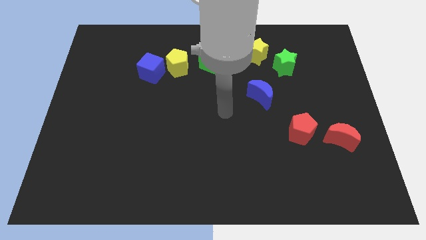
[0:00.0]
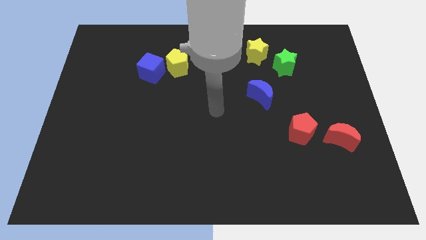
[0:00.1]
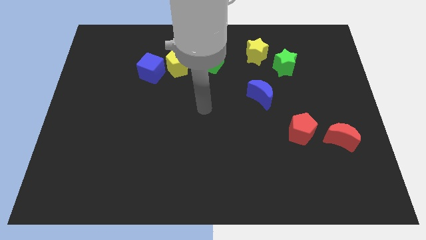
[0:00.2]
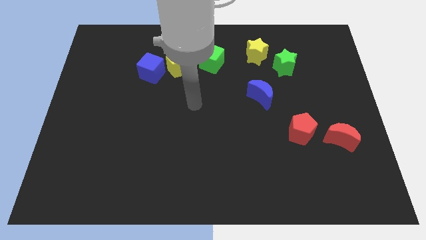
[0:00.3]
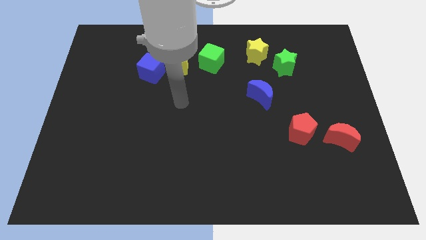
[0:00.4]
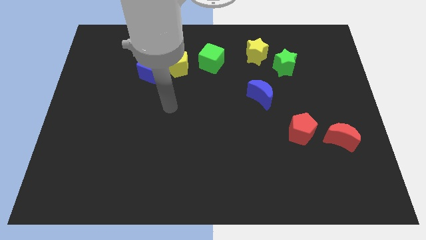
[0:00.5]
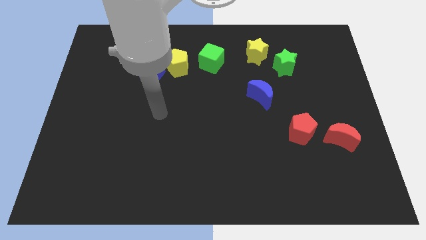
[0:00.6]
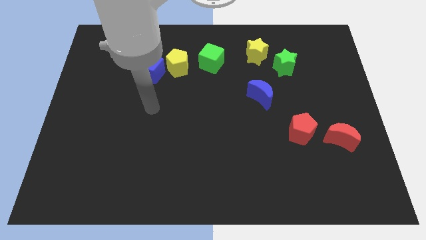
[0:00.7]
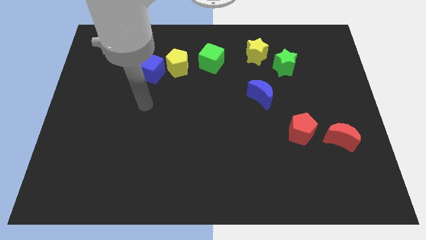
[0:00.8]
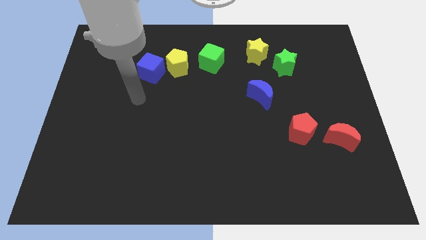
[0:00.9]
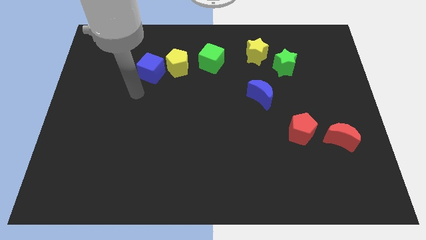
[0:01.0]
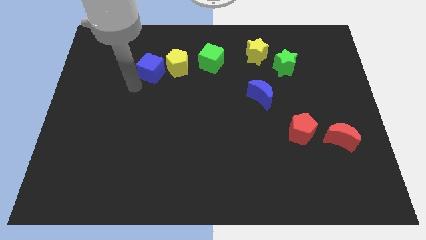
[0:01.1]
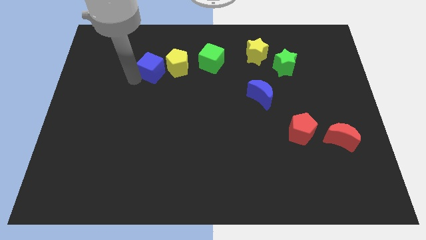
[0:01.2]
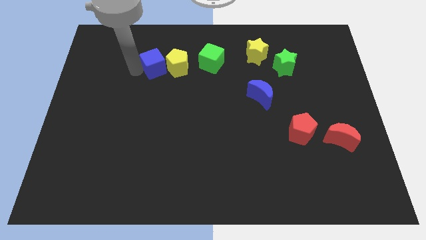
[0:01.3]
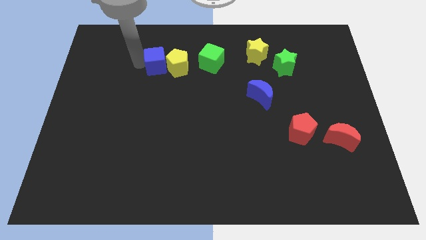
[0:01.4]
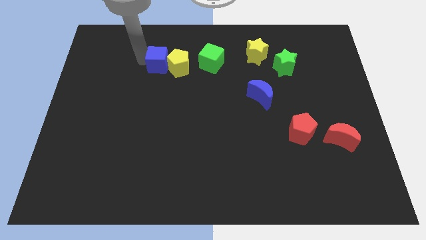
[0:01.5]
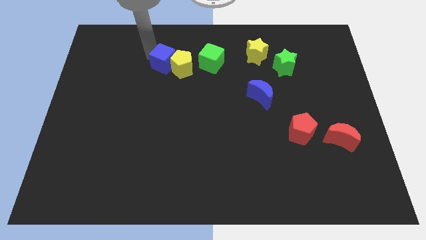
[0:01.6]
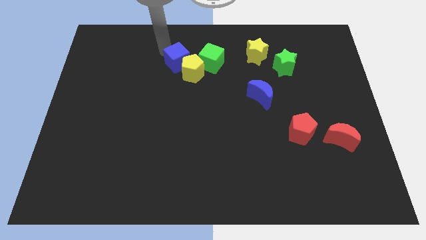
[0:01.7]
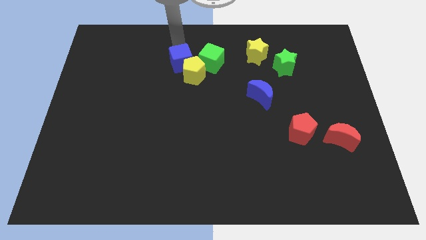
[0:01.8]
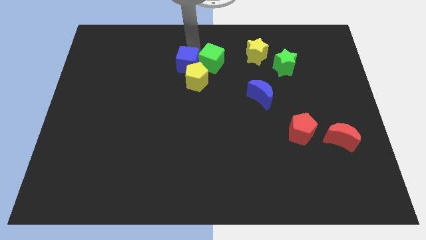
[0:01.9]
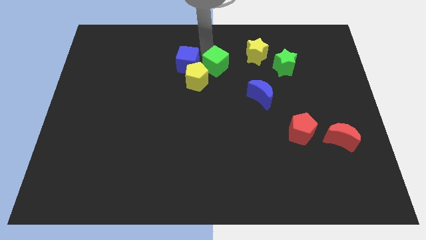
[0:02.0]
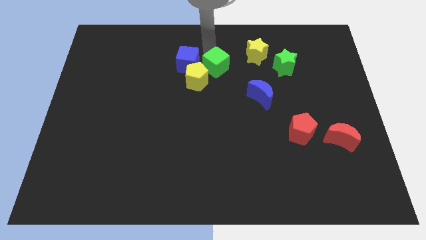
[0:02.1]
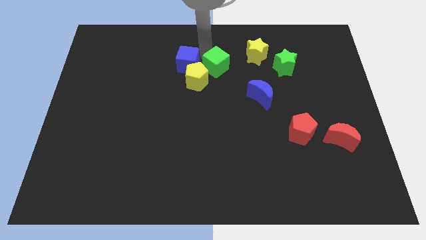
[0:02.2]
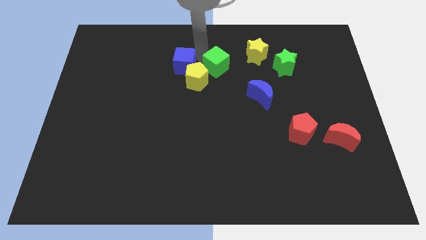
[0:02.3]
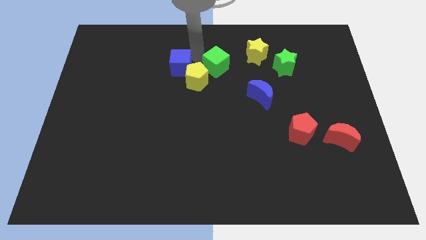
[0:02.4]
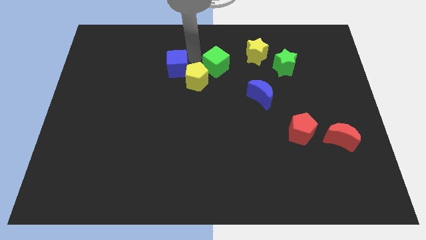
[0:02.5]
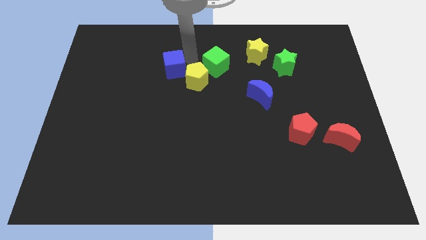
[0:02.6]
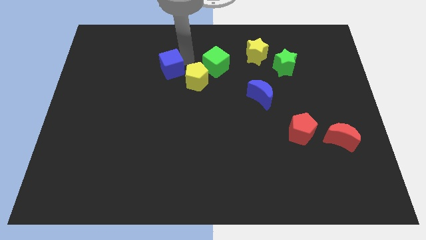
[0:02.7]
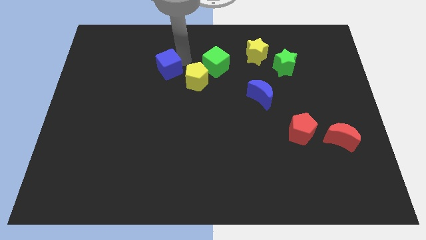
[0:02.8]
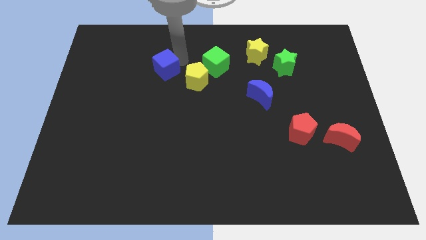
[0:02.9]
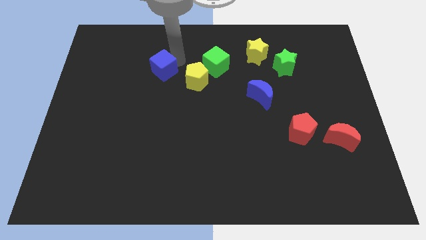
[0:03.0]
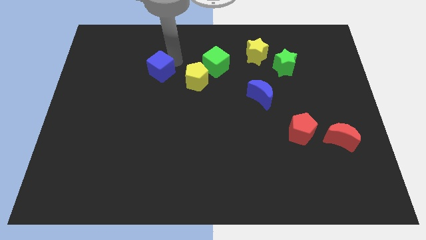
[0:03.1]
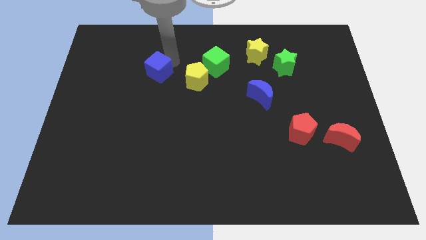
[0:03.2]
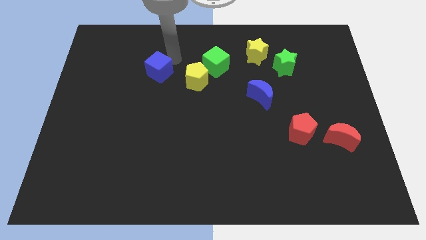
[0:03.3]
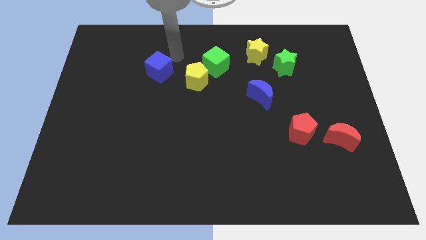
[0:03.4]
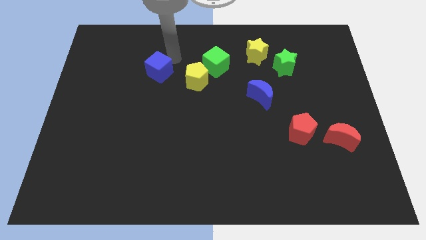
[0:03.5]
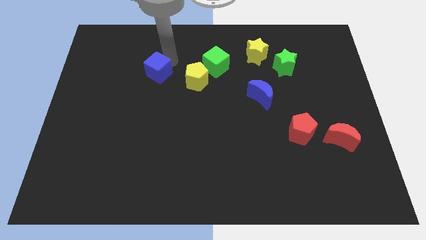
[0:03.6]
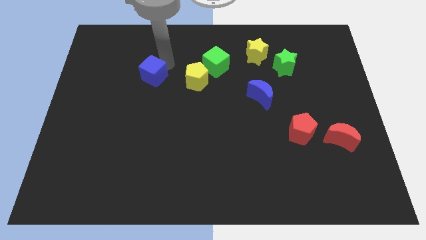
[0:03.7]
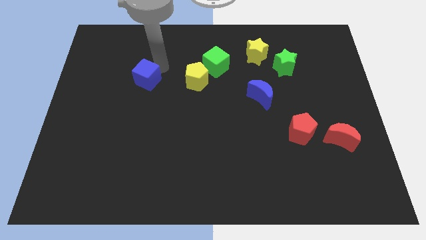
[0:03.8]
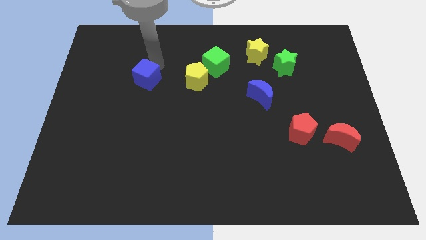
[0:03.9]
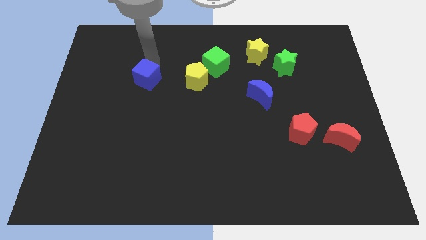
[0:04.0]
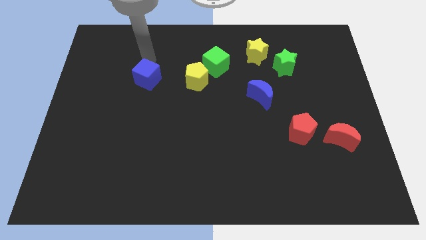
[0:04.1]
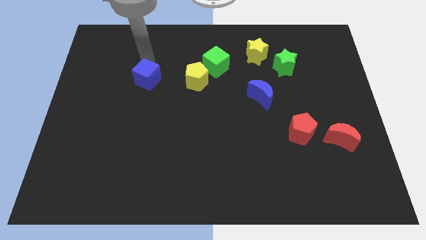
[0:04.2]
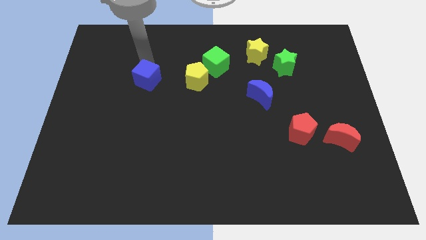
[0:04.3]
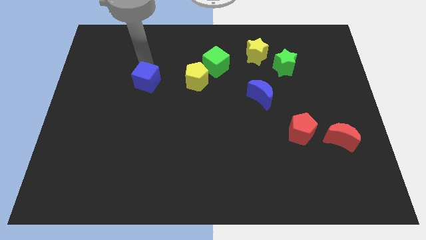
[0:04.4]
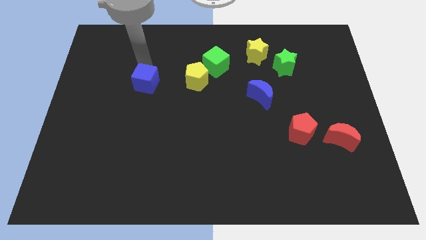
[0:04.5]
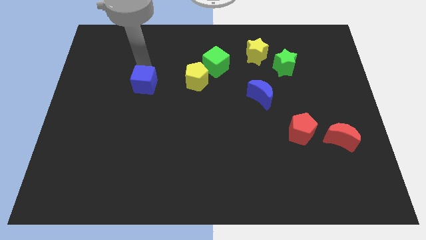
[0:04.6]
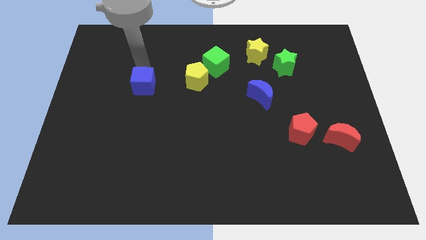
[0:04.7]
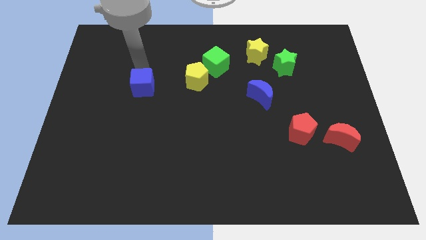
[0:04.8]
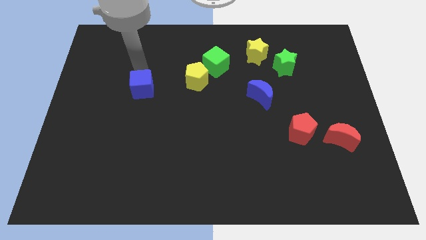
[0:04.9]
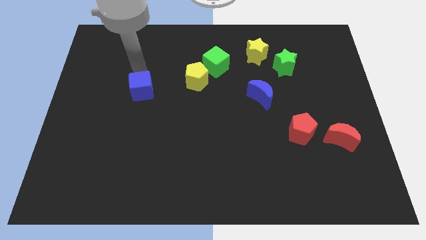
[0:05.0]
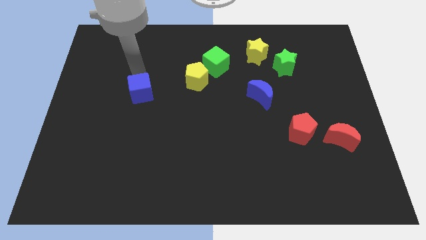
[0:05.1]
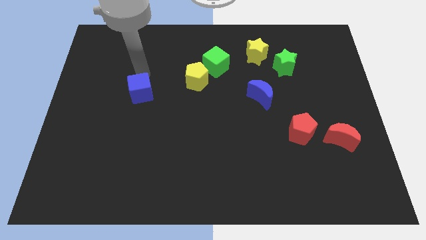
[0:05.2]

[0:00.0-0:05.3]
slide the blue cube a little down

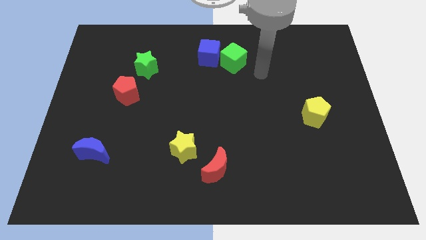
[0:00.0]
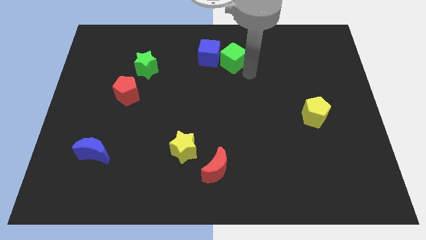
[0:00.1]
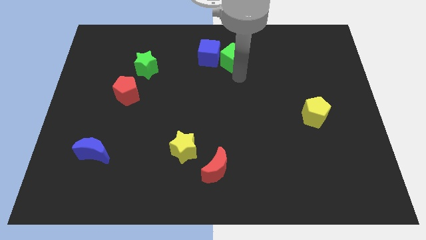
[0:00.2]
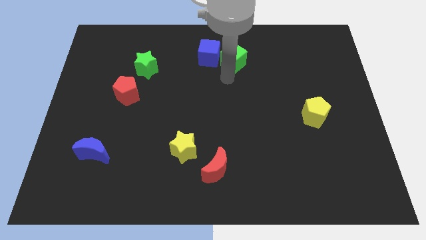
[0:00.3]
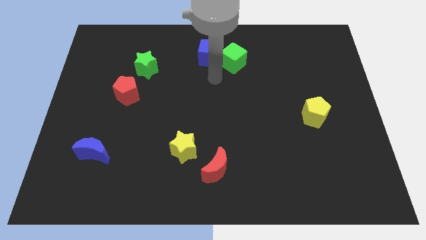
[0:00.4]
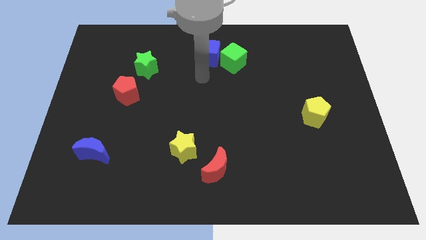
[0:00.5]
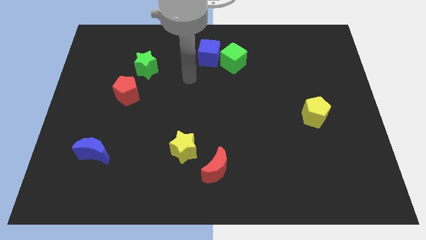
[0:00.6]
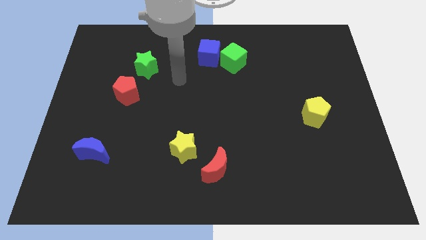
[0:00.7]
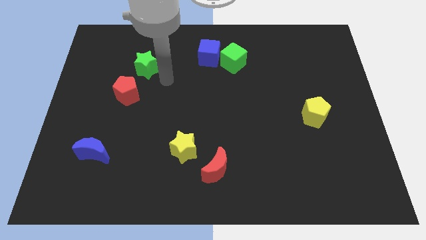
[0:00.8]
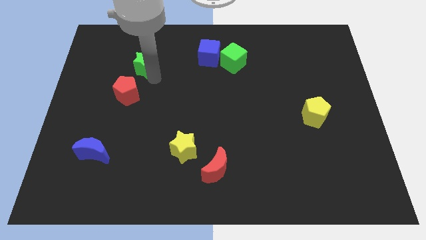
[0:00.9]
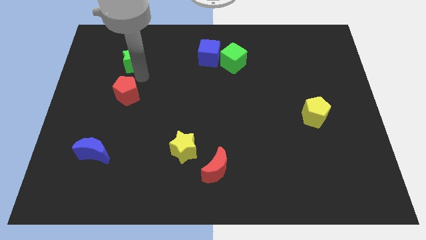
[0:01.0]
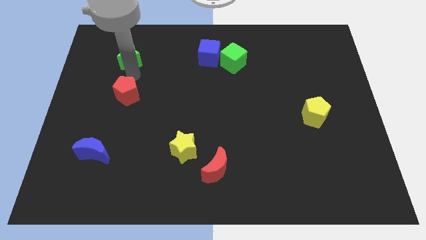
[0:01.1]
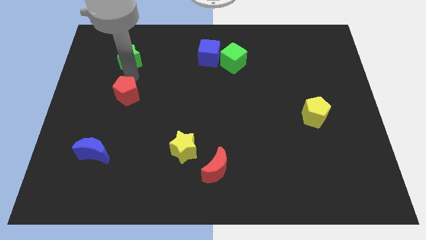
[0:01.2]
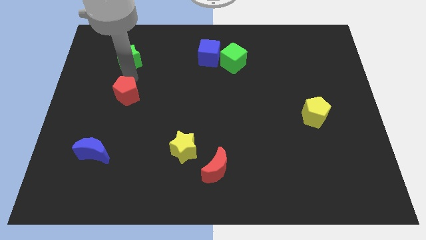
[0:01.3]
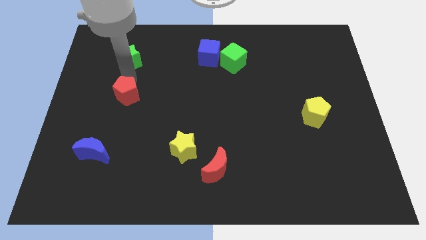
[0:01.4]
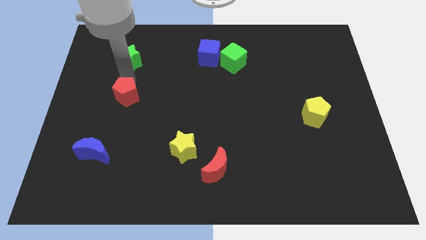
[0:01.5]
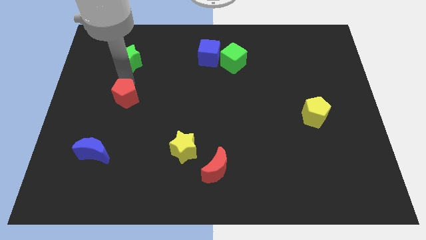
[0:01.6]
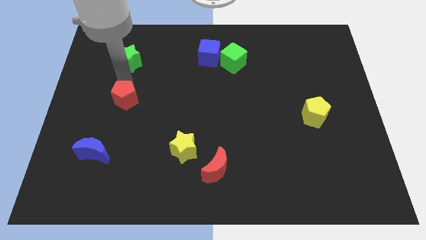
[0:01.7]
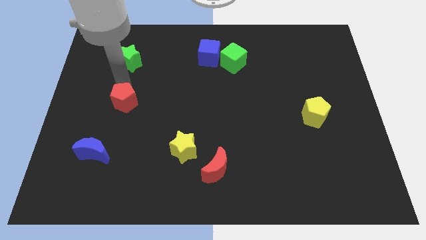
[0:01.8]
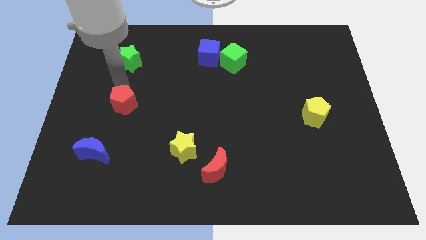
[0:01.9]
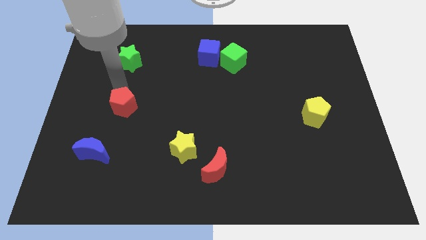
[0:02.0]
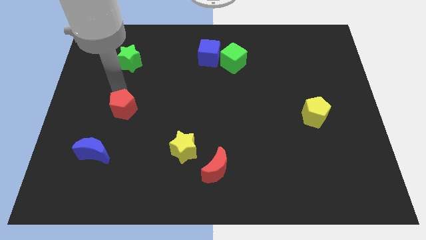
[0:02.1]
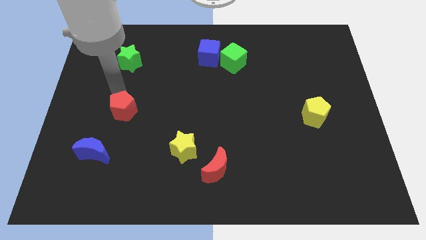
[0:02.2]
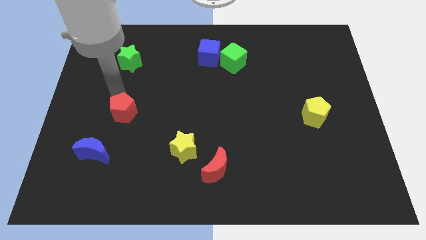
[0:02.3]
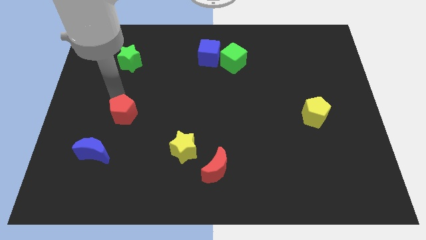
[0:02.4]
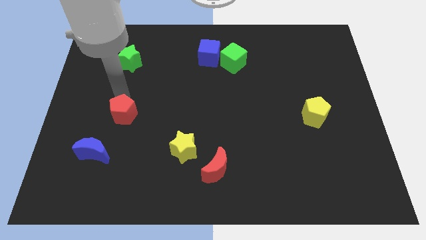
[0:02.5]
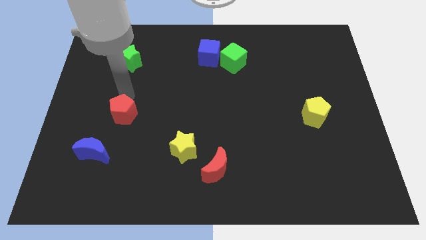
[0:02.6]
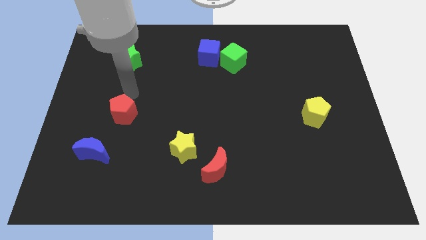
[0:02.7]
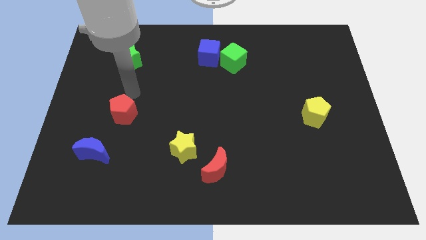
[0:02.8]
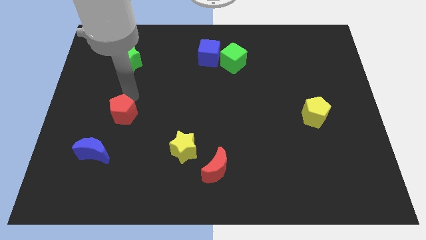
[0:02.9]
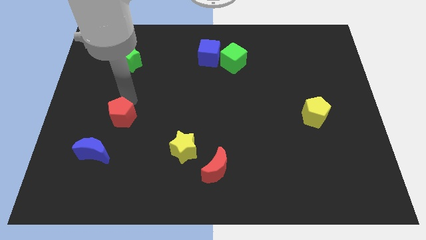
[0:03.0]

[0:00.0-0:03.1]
slightly push the red pentagon downwards

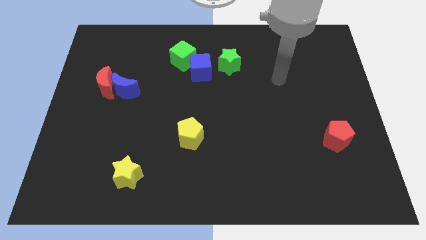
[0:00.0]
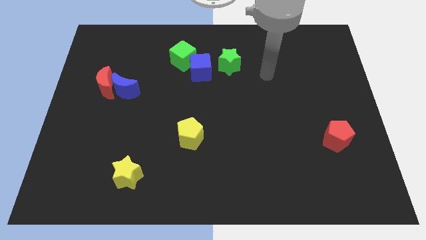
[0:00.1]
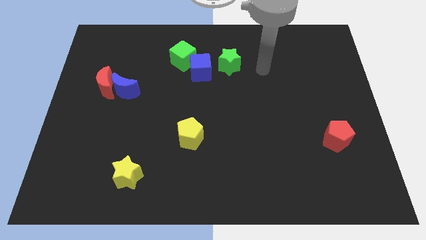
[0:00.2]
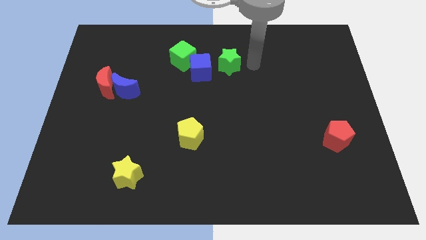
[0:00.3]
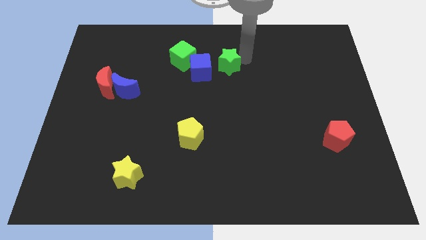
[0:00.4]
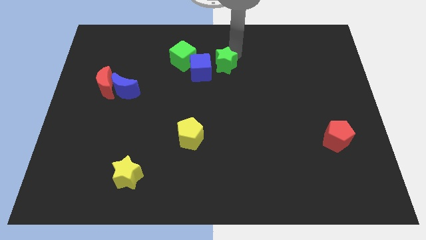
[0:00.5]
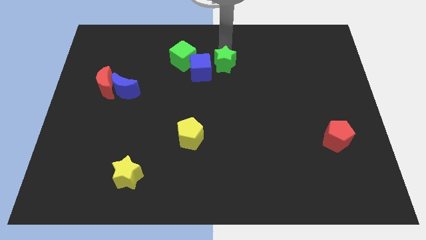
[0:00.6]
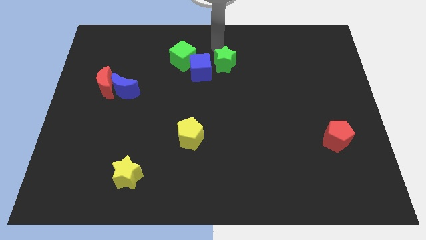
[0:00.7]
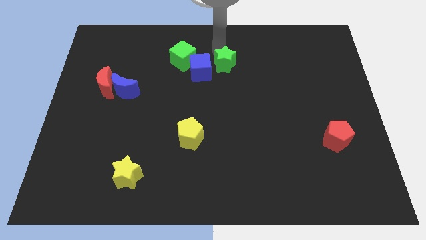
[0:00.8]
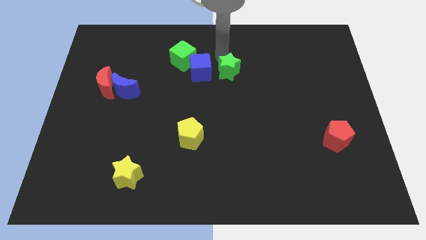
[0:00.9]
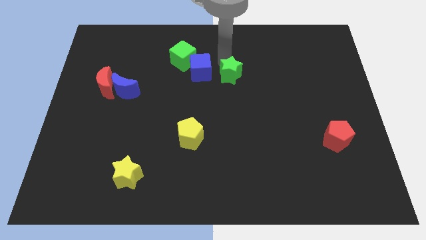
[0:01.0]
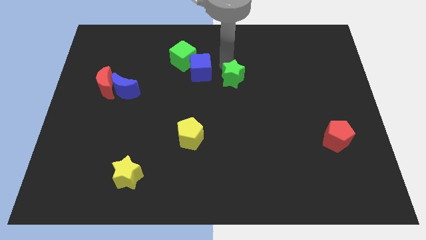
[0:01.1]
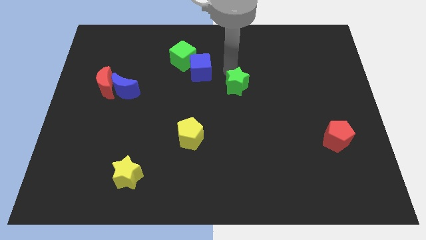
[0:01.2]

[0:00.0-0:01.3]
slide the green star a little down
